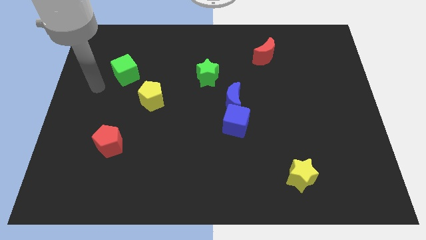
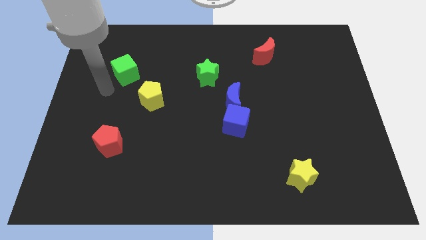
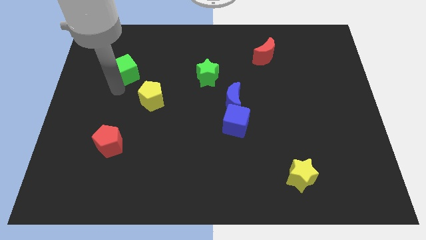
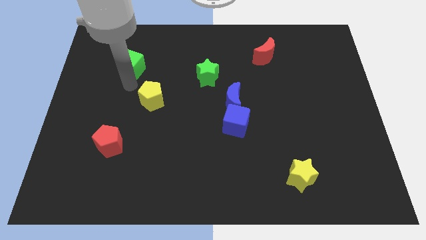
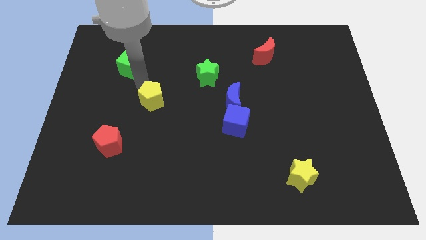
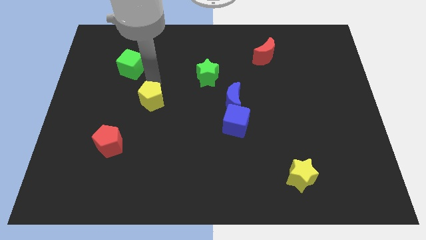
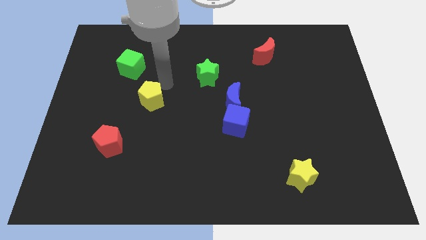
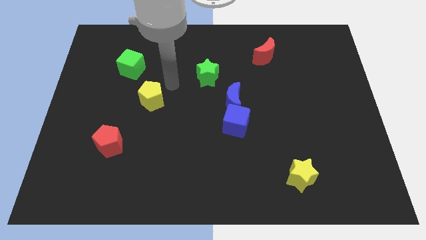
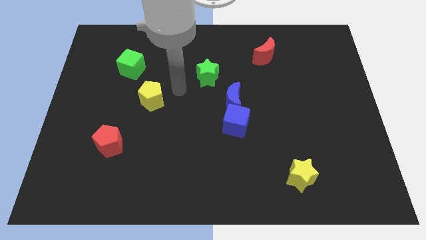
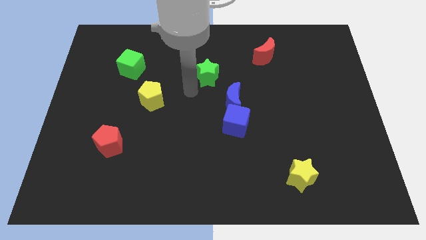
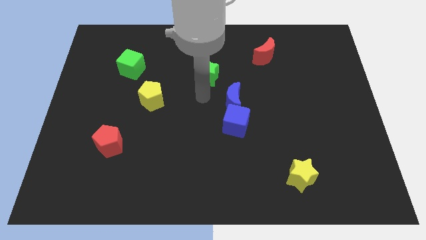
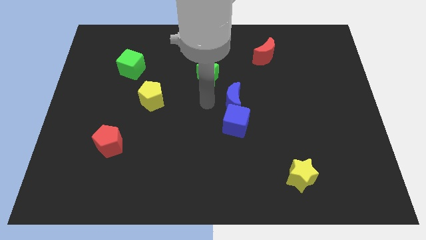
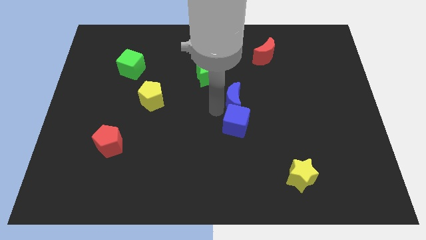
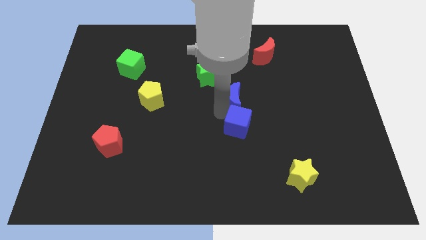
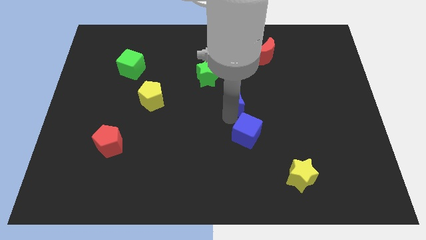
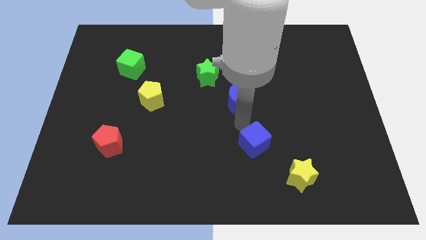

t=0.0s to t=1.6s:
move the blue moon away from the blue cube

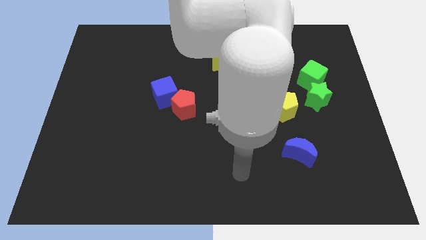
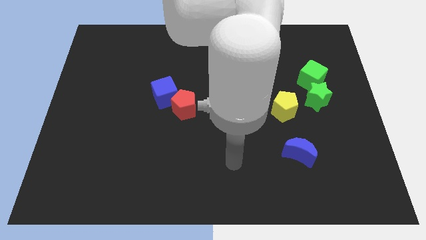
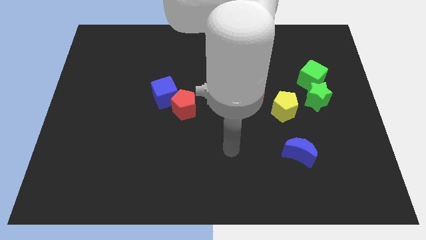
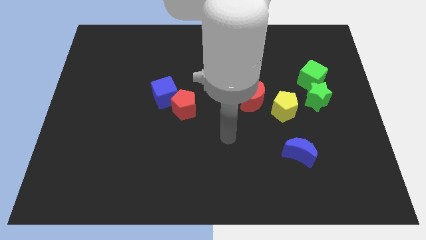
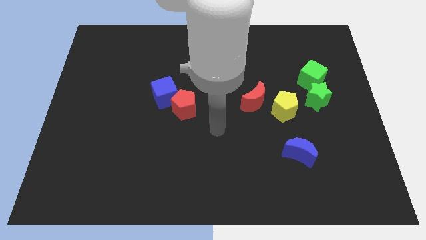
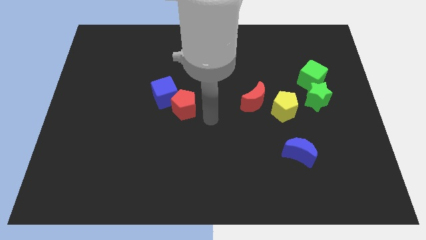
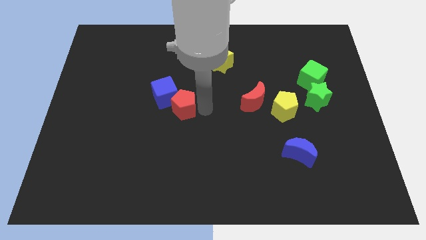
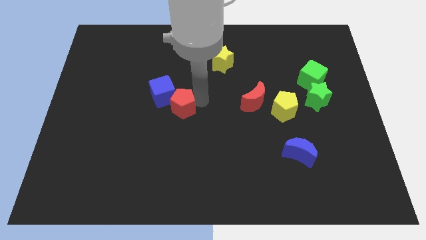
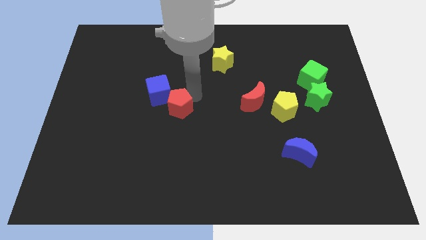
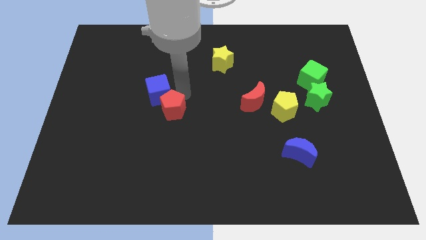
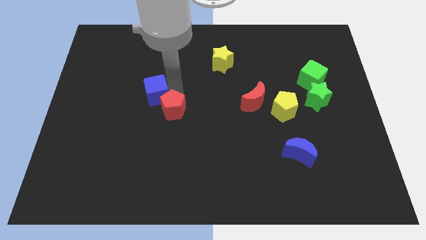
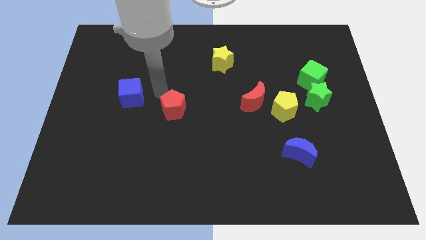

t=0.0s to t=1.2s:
pull the red pentagon apart from the blue cube

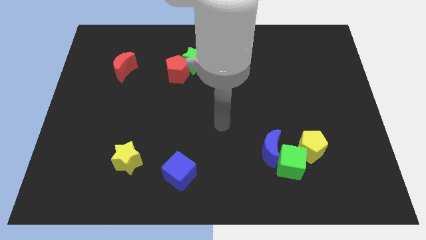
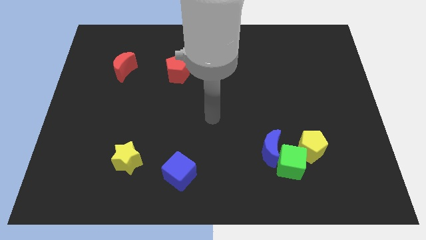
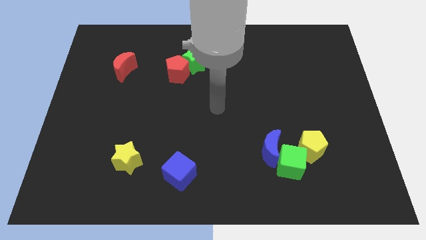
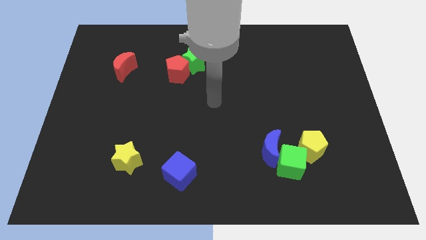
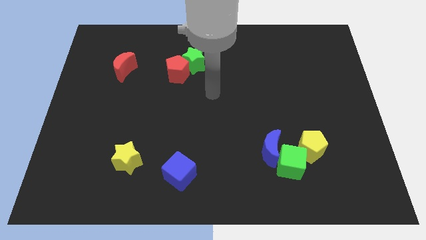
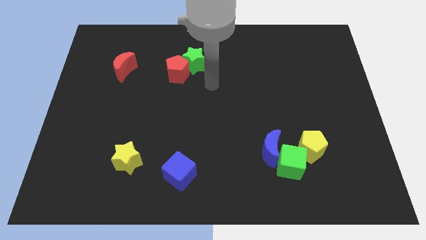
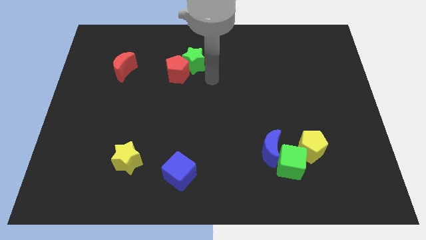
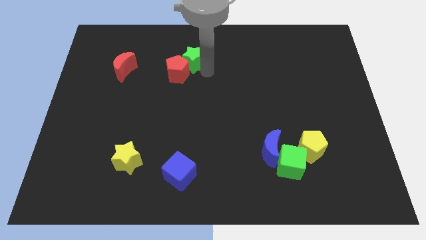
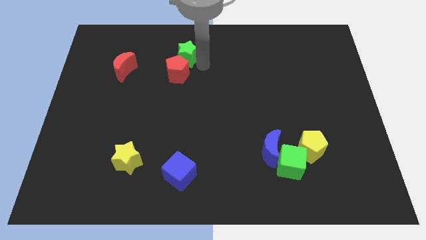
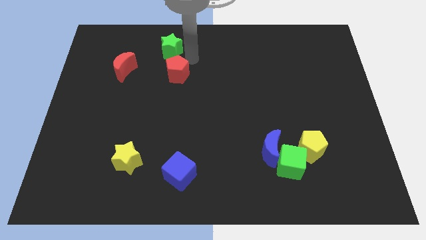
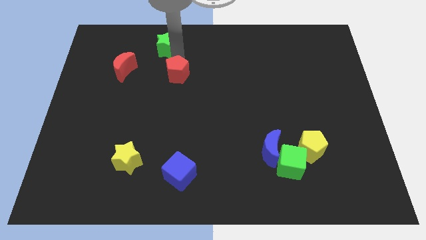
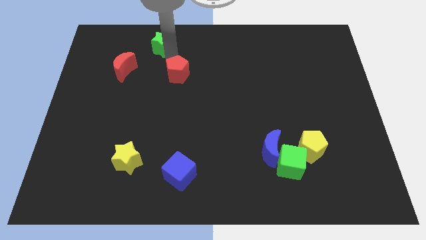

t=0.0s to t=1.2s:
move the red pentagon away from the green star

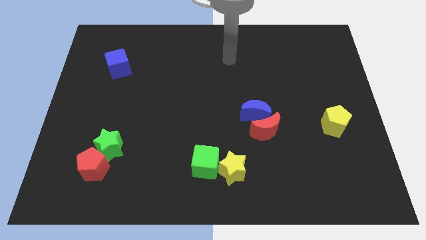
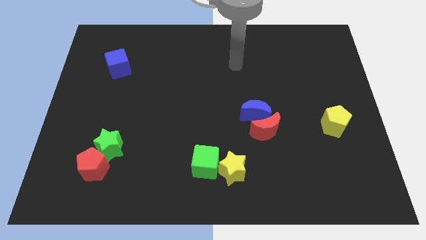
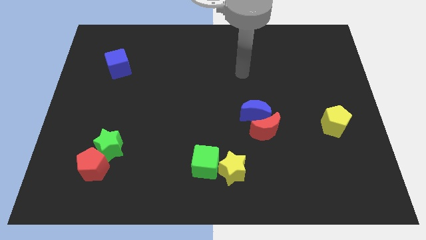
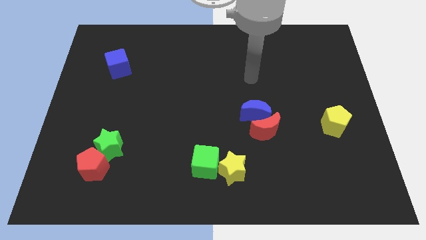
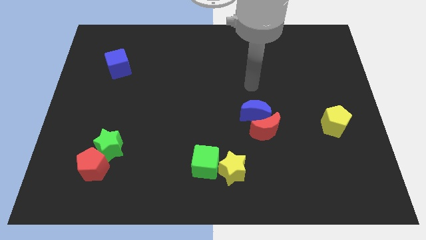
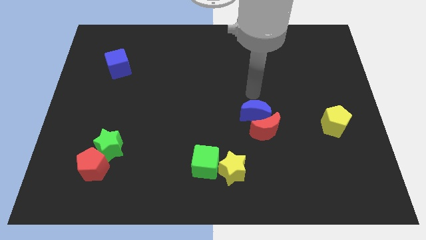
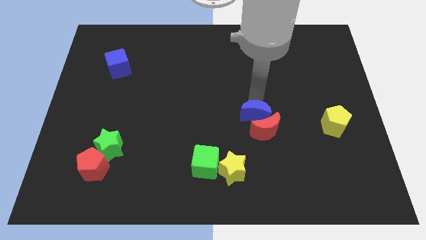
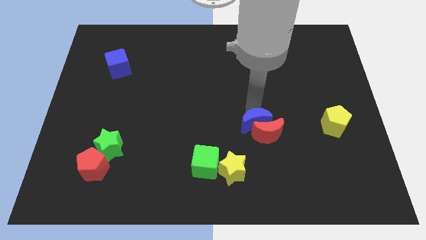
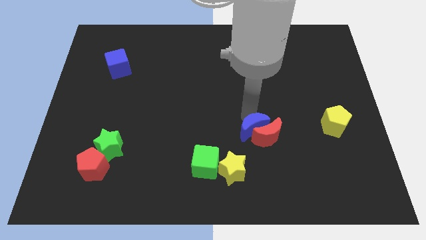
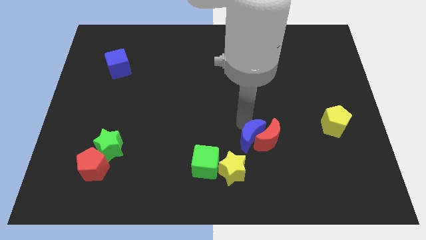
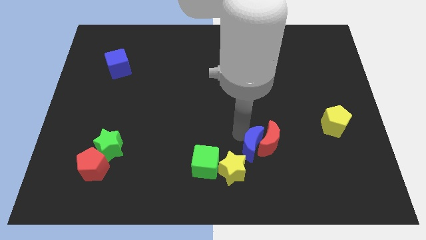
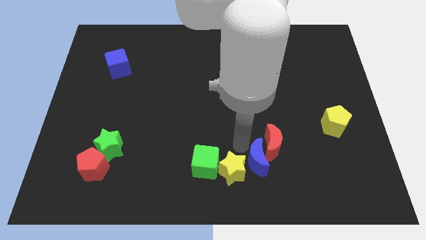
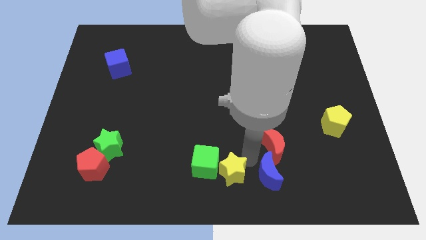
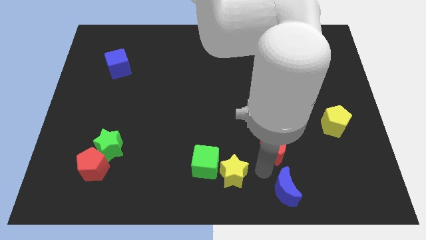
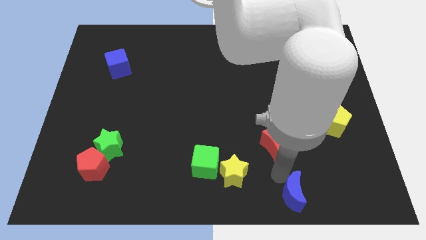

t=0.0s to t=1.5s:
move the red moon away from the blue moon

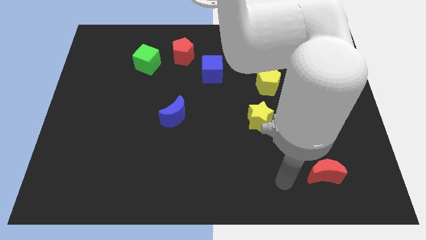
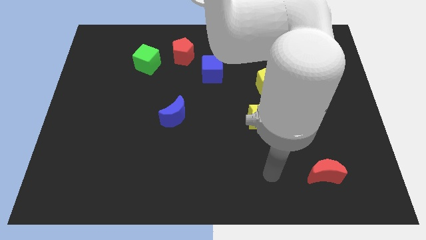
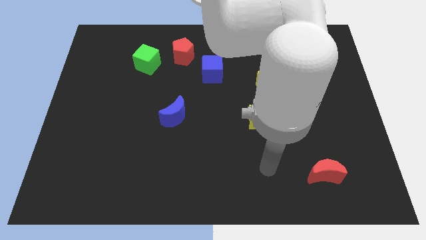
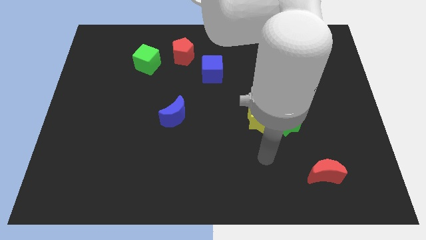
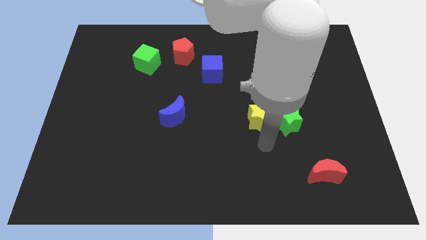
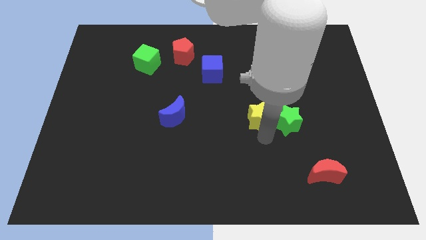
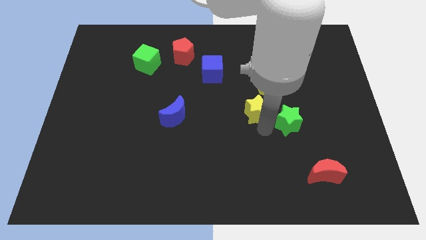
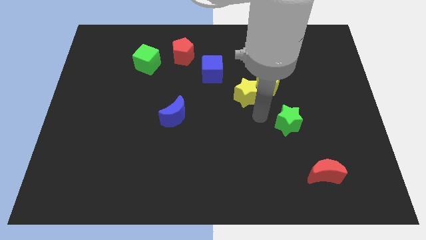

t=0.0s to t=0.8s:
separate the green star from the yellow star

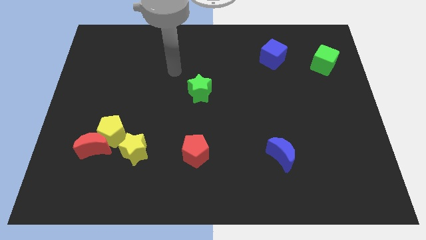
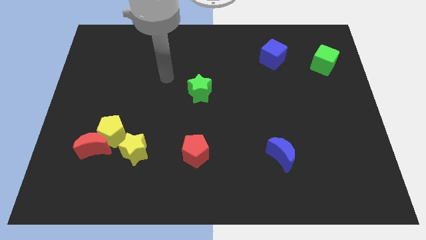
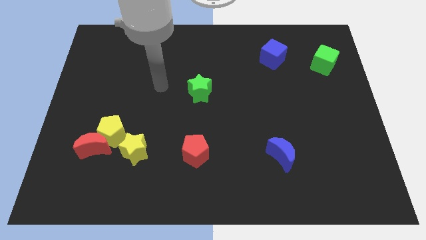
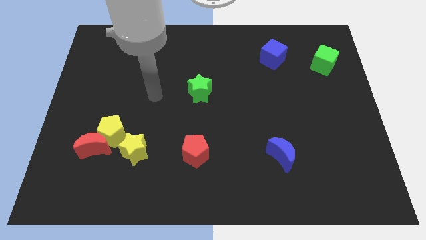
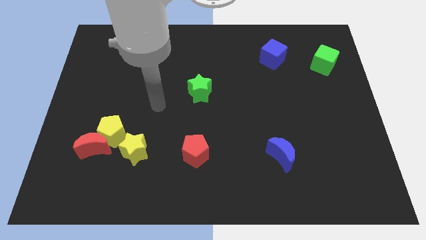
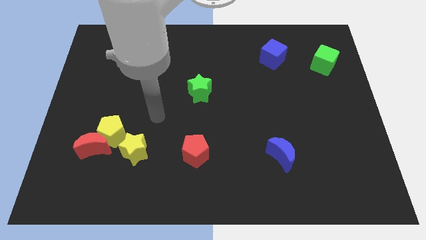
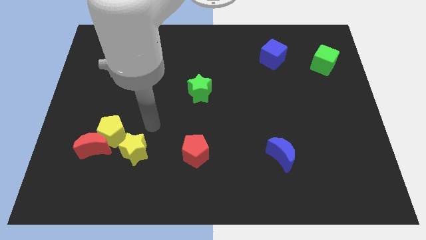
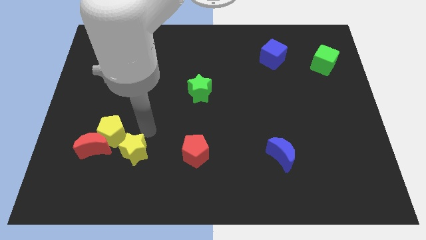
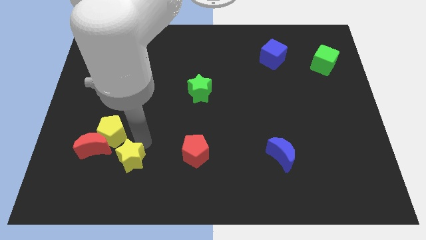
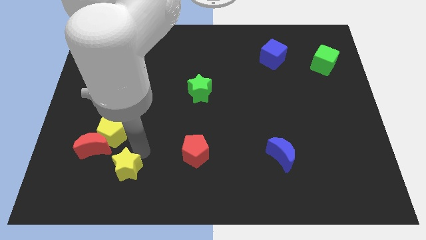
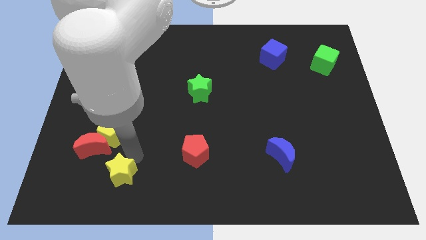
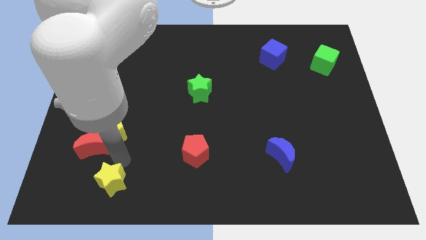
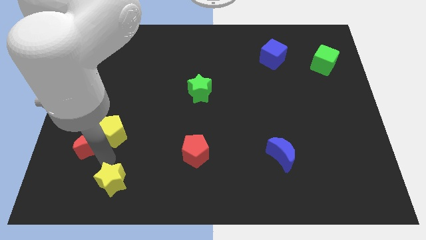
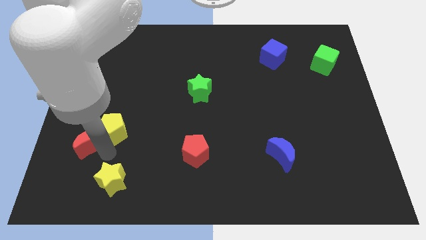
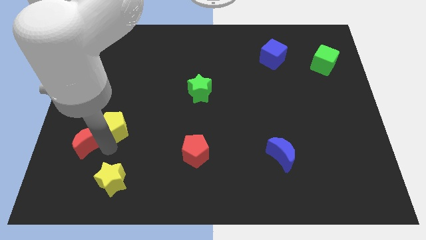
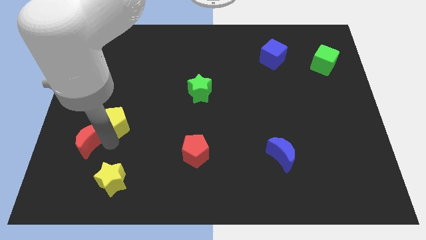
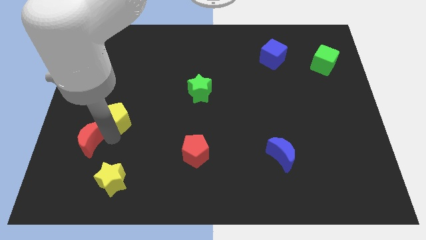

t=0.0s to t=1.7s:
move the yellow pentagon away from the red moon and yellow star

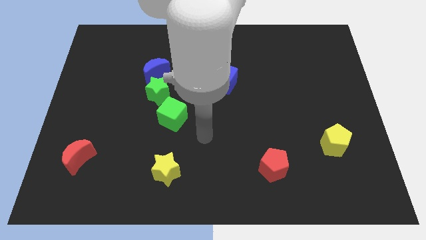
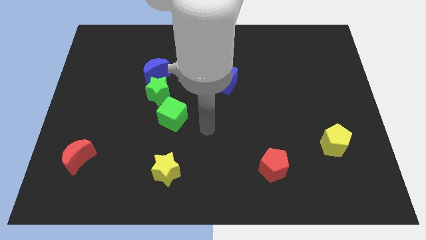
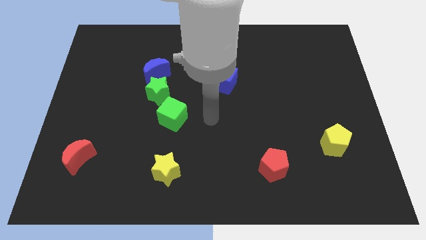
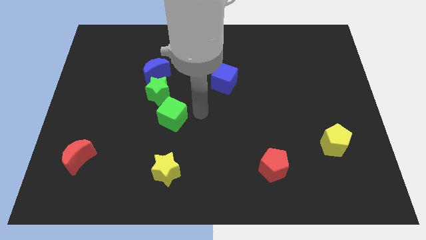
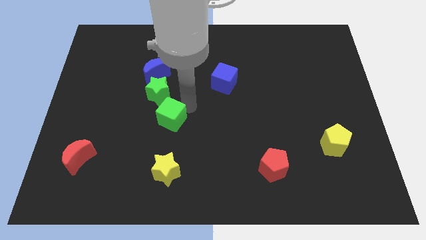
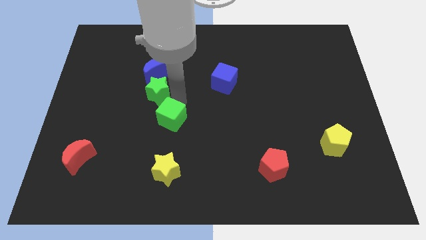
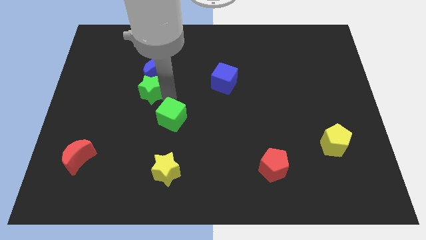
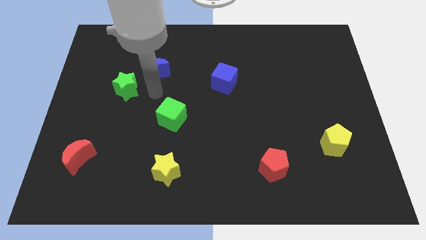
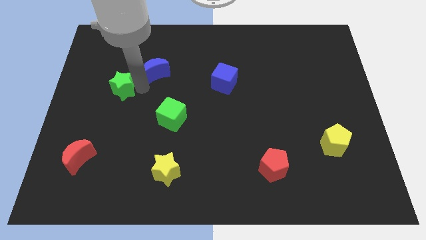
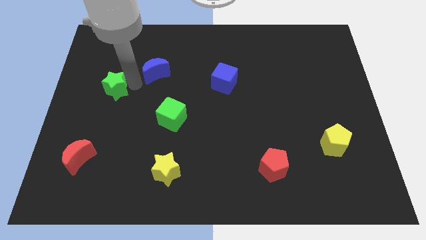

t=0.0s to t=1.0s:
move the blue moon away from the green star

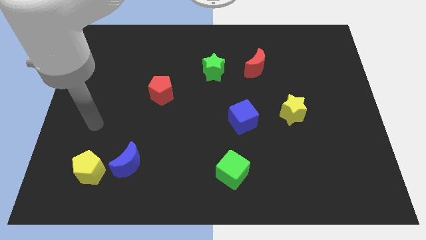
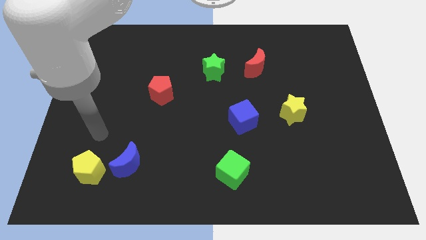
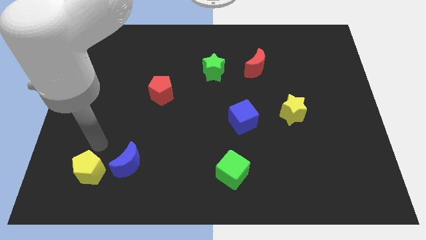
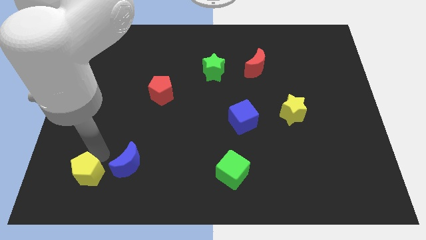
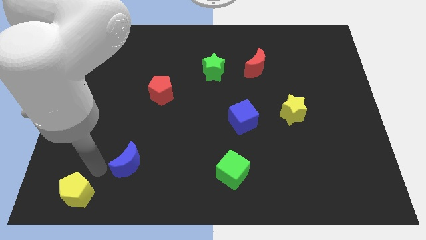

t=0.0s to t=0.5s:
move the blue moon away from the yellow pentagon
